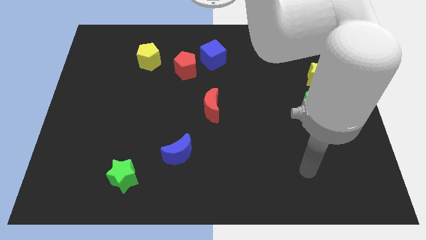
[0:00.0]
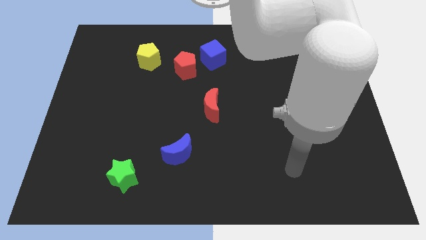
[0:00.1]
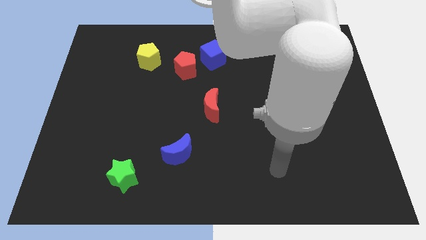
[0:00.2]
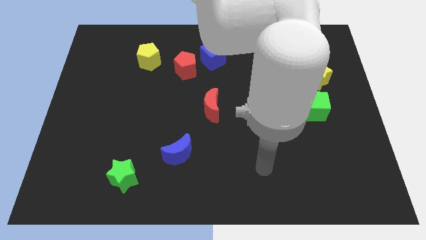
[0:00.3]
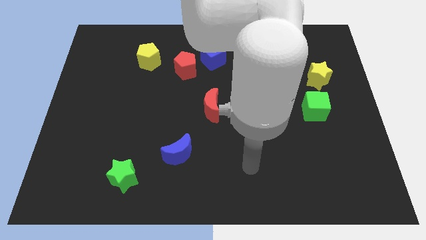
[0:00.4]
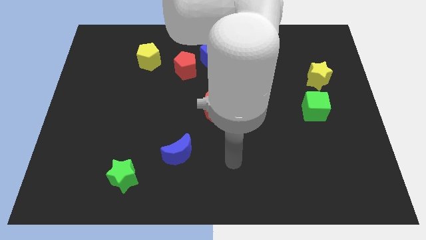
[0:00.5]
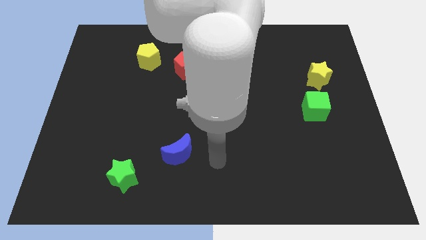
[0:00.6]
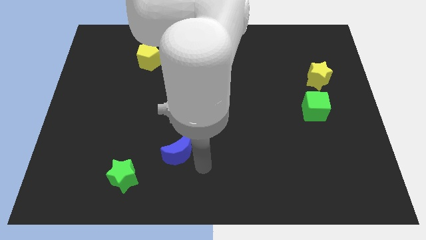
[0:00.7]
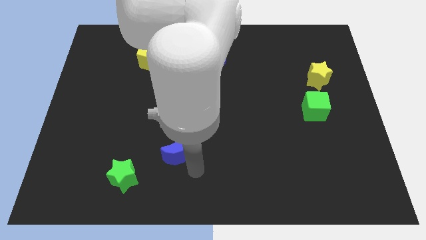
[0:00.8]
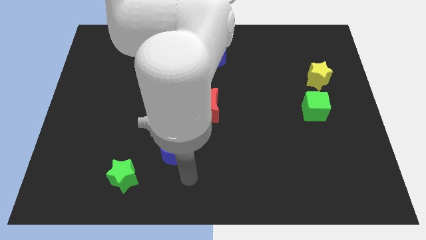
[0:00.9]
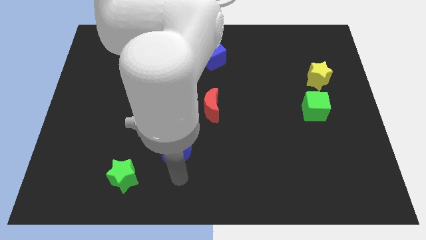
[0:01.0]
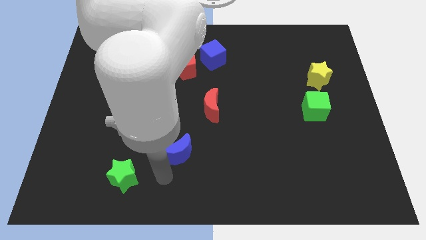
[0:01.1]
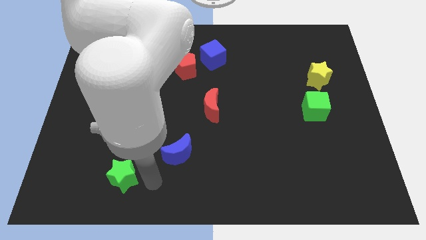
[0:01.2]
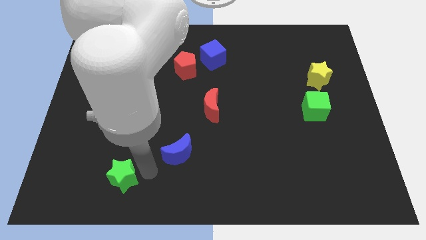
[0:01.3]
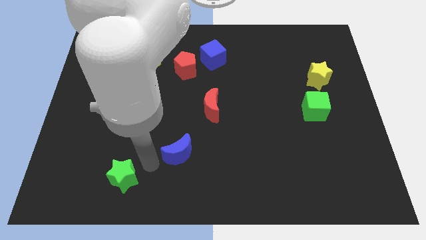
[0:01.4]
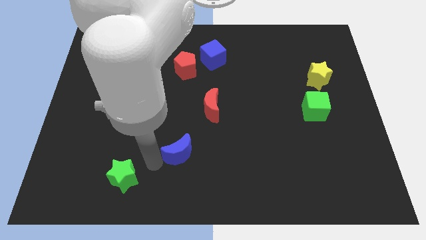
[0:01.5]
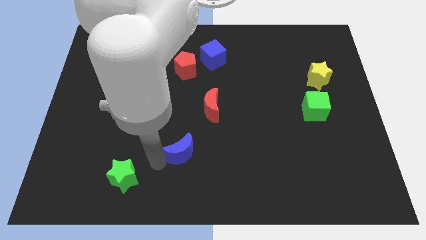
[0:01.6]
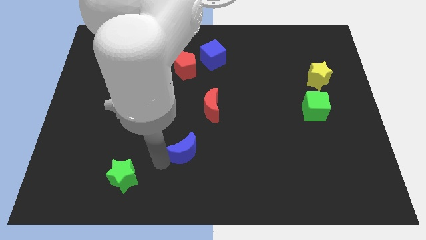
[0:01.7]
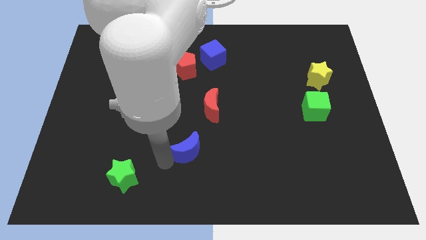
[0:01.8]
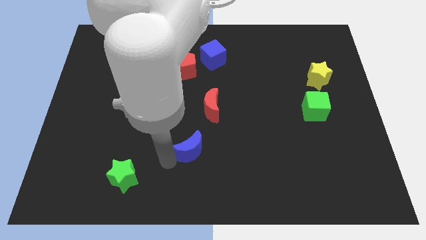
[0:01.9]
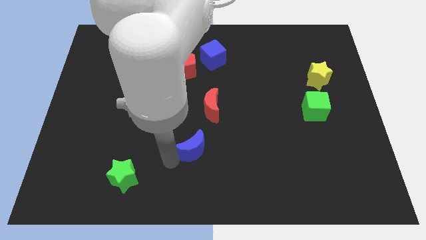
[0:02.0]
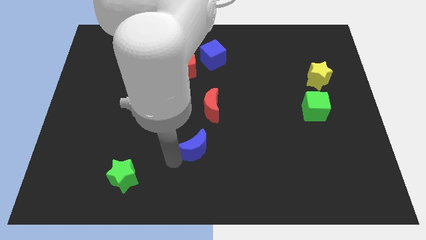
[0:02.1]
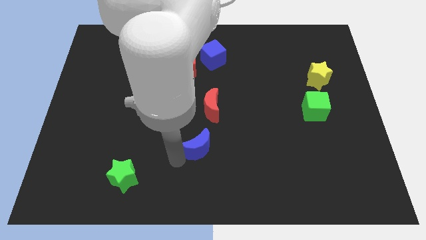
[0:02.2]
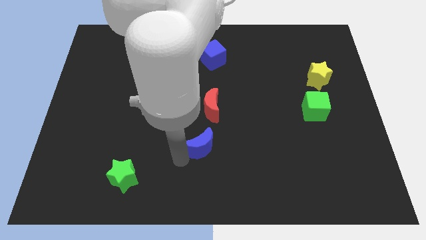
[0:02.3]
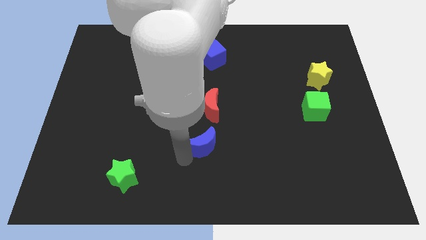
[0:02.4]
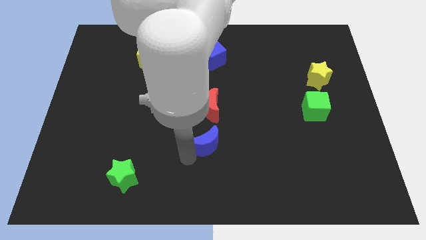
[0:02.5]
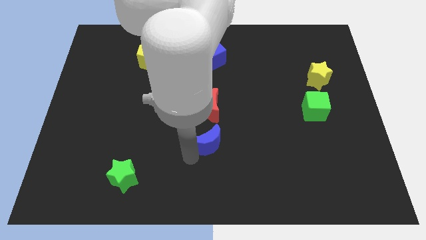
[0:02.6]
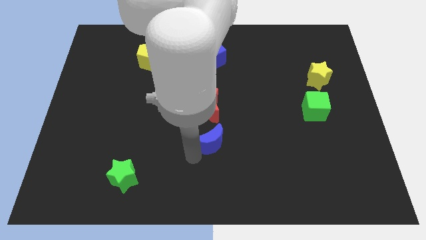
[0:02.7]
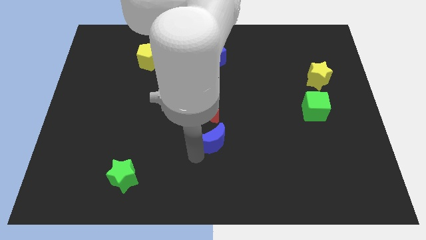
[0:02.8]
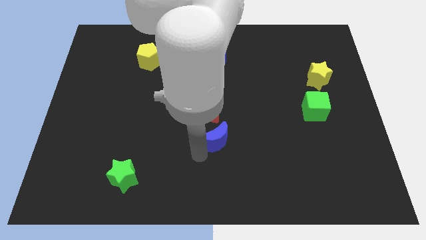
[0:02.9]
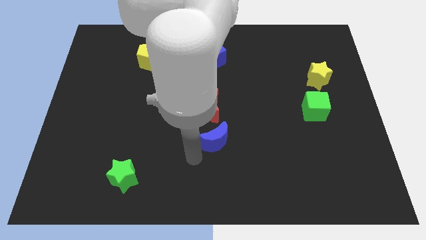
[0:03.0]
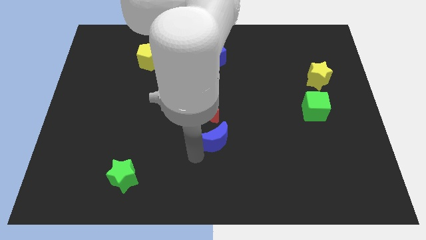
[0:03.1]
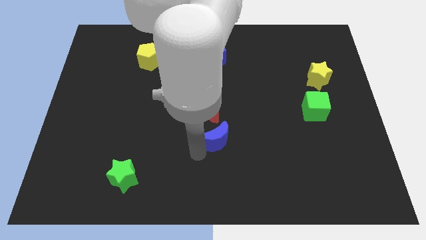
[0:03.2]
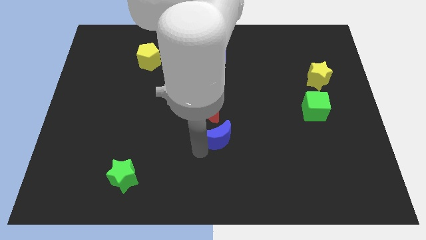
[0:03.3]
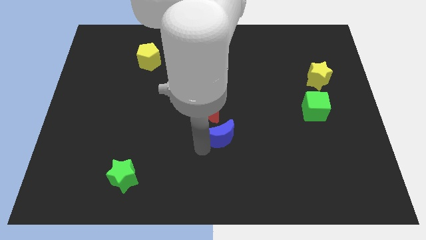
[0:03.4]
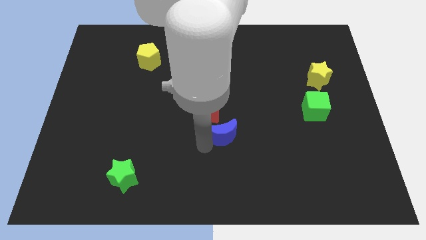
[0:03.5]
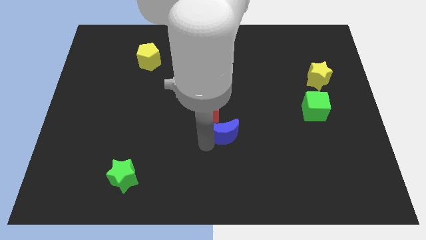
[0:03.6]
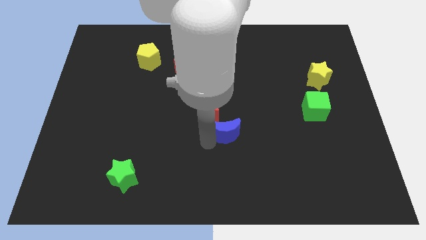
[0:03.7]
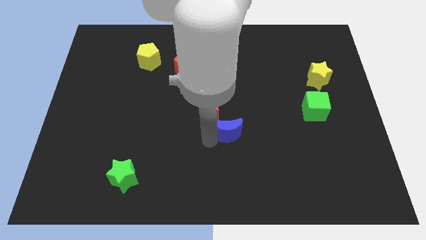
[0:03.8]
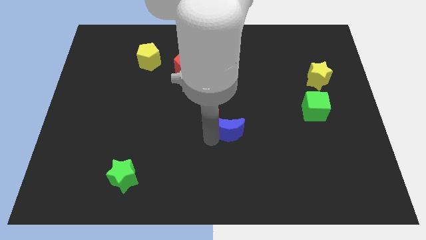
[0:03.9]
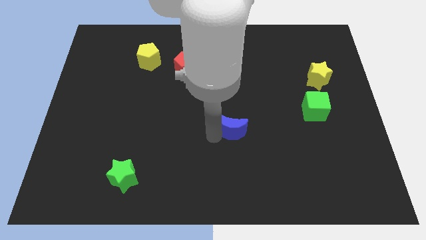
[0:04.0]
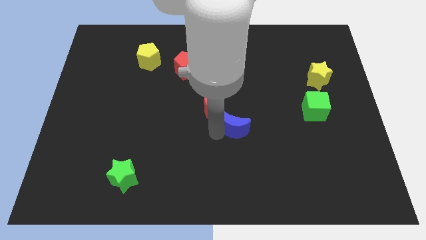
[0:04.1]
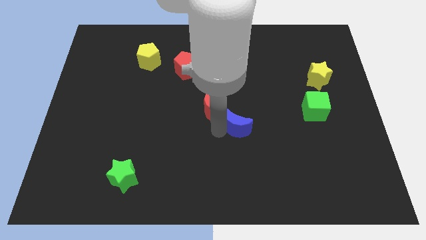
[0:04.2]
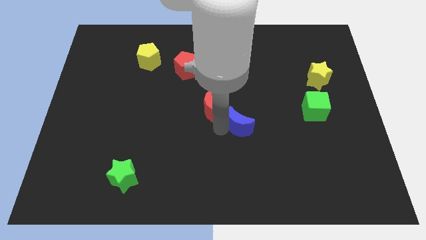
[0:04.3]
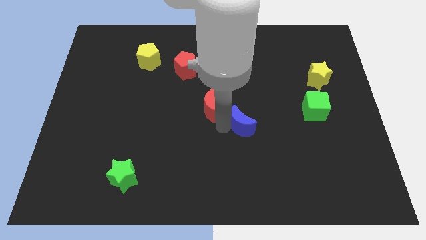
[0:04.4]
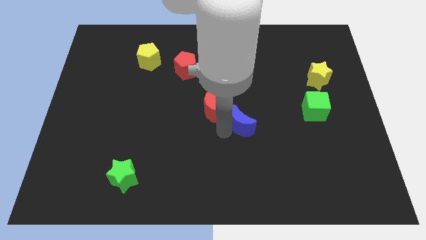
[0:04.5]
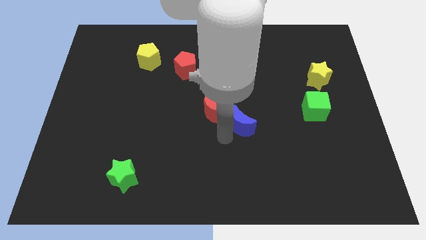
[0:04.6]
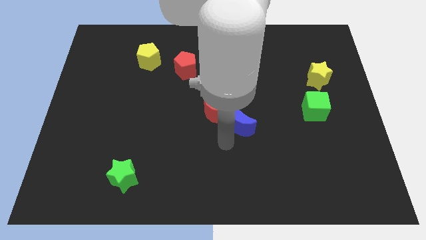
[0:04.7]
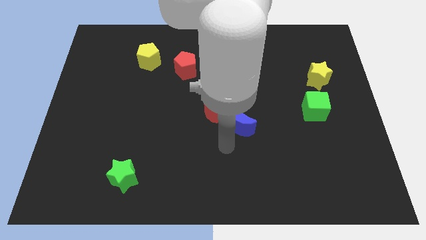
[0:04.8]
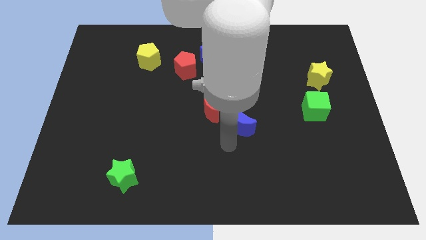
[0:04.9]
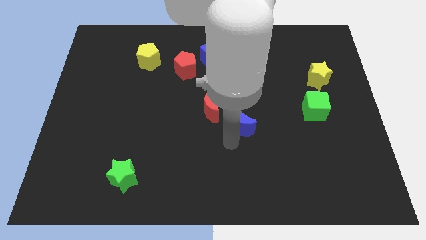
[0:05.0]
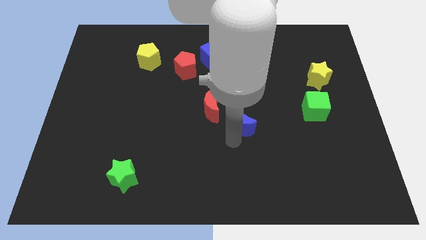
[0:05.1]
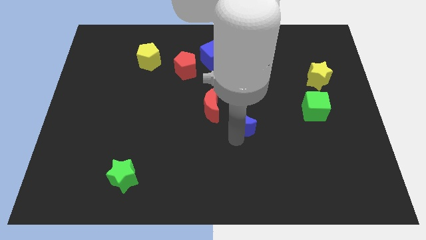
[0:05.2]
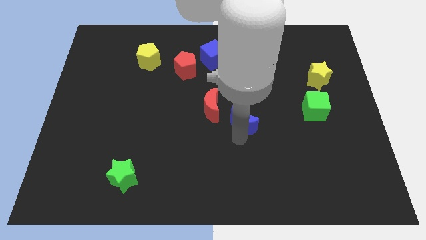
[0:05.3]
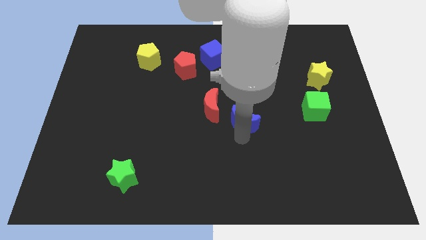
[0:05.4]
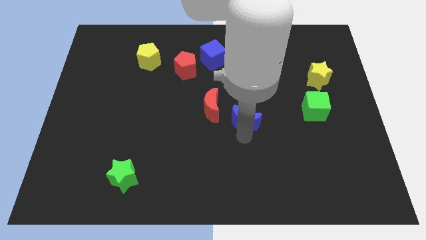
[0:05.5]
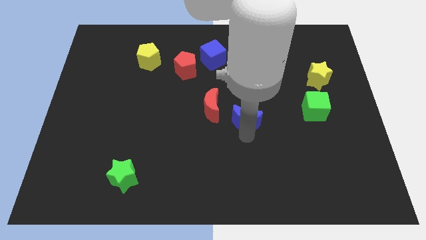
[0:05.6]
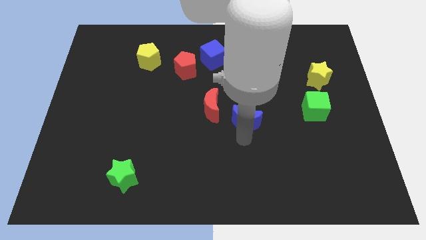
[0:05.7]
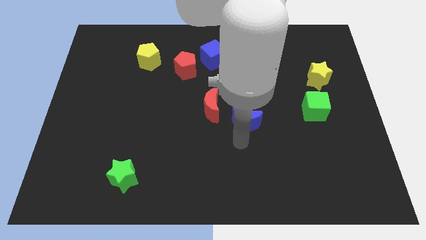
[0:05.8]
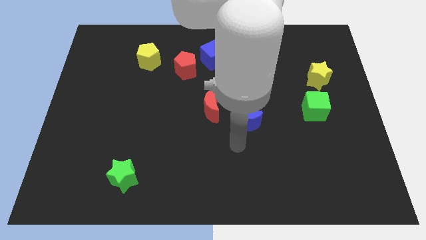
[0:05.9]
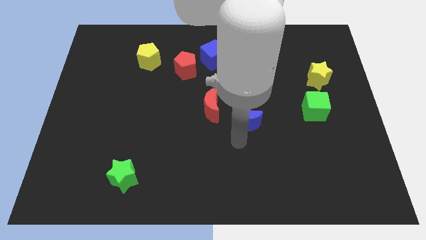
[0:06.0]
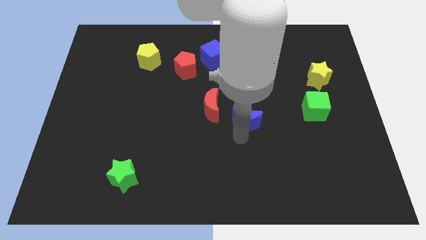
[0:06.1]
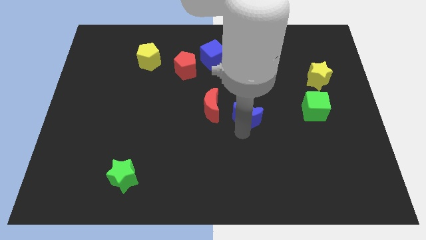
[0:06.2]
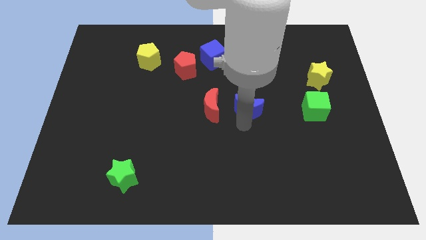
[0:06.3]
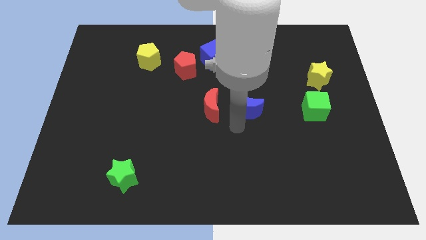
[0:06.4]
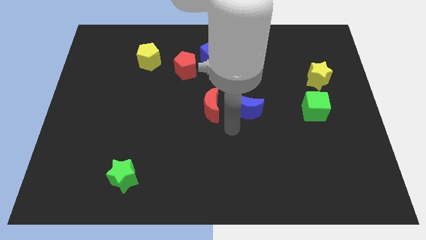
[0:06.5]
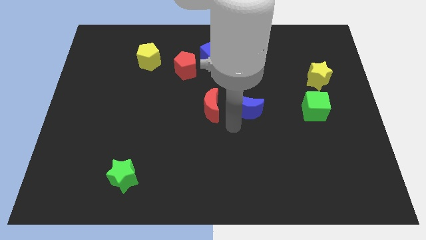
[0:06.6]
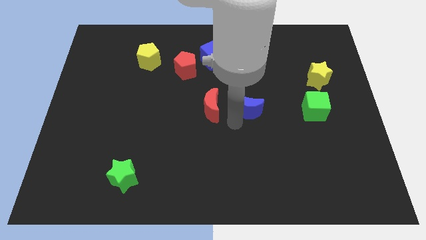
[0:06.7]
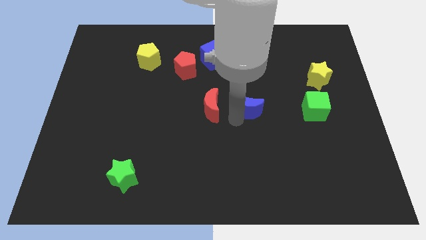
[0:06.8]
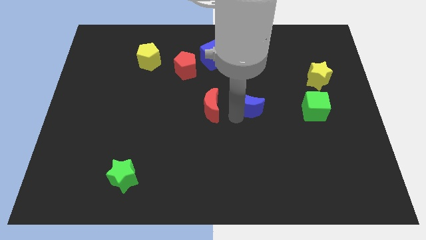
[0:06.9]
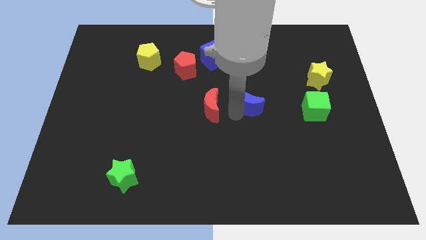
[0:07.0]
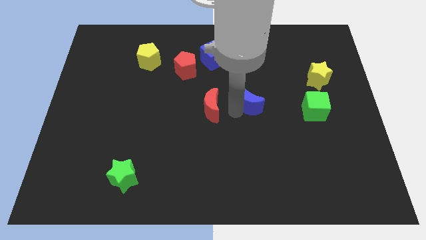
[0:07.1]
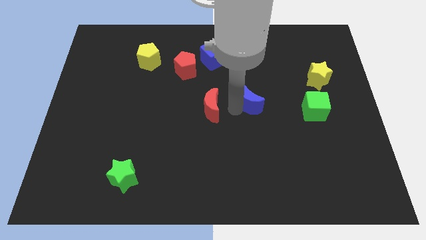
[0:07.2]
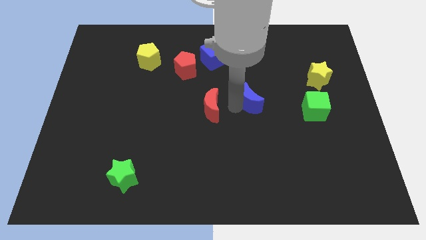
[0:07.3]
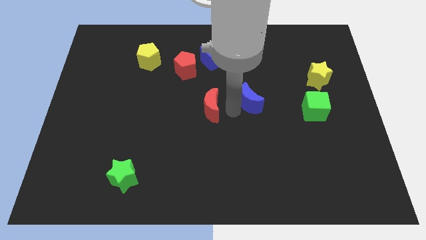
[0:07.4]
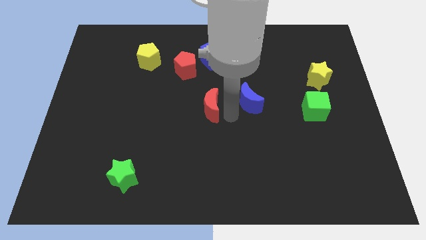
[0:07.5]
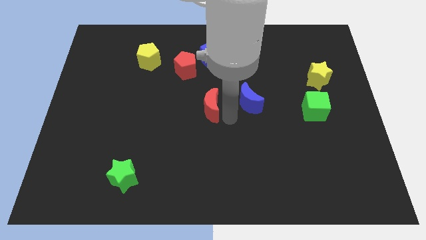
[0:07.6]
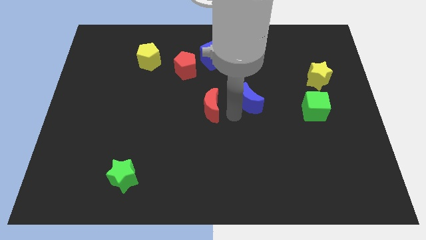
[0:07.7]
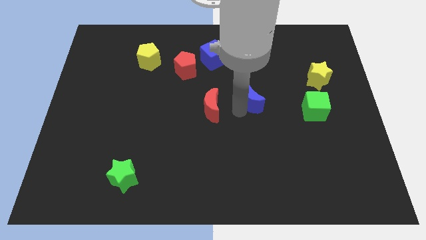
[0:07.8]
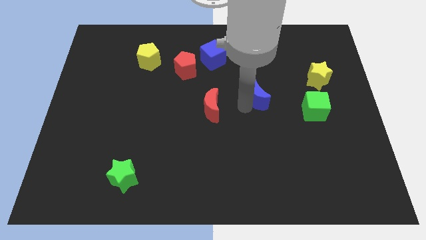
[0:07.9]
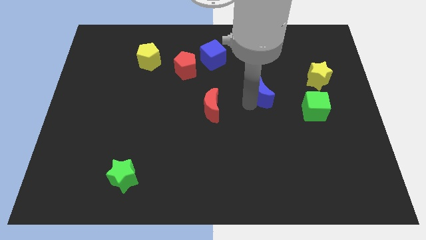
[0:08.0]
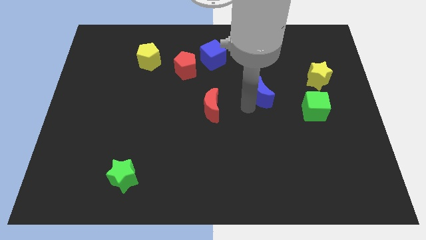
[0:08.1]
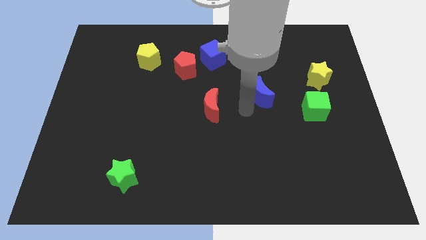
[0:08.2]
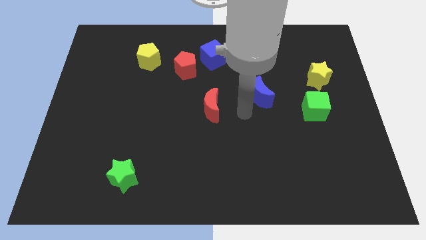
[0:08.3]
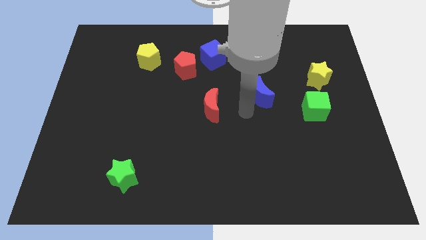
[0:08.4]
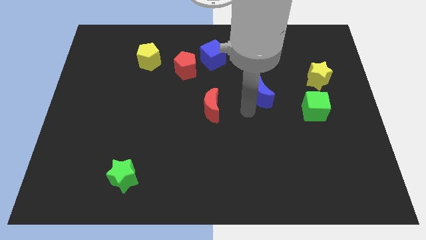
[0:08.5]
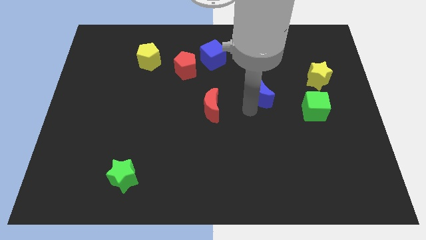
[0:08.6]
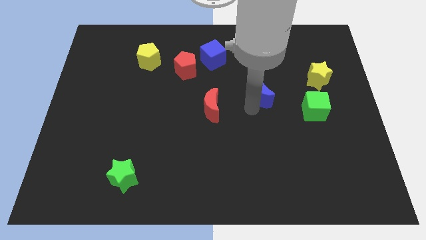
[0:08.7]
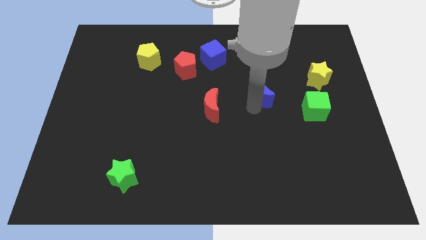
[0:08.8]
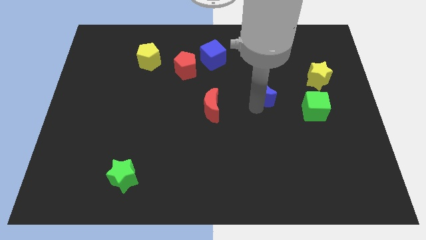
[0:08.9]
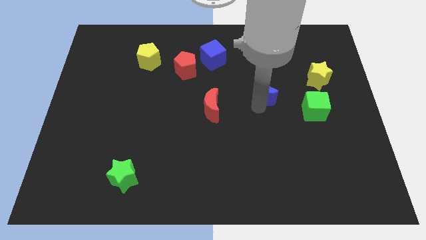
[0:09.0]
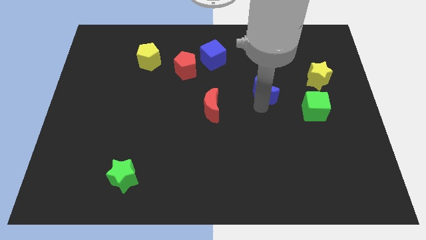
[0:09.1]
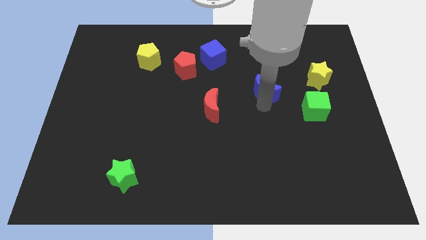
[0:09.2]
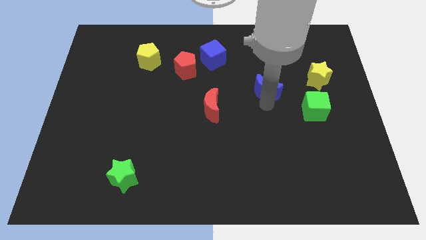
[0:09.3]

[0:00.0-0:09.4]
slide the blue moon to the left side of the yellow star
